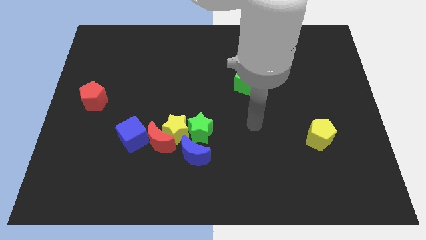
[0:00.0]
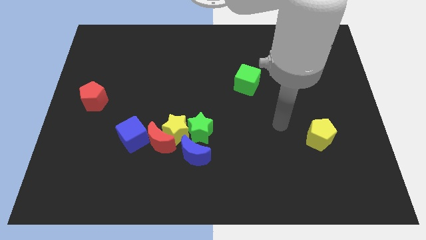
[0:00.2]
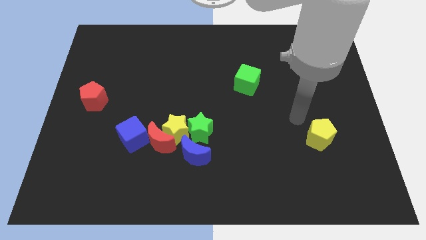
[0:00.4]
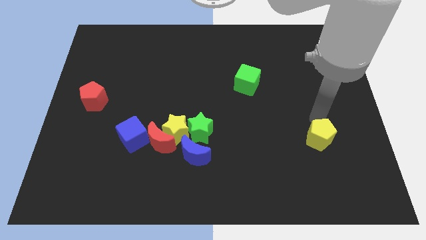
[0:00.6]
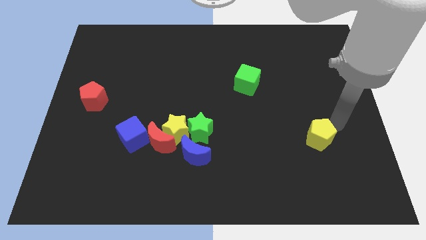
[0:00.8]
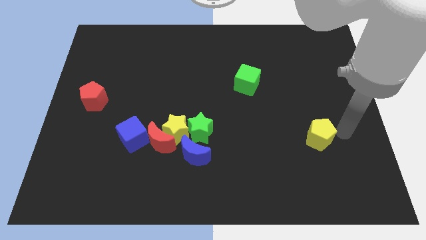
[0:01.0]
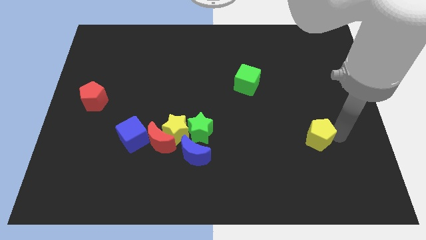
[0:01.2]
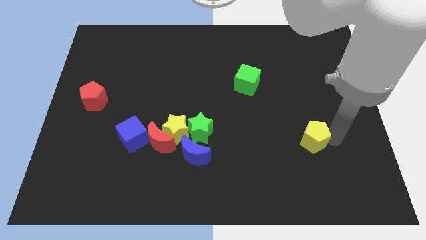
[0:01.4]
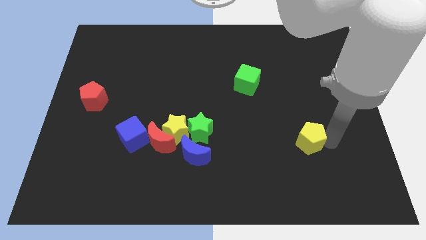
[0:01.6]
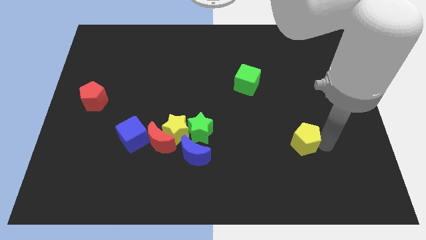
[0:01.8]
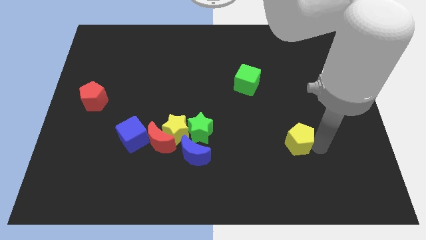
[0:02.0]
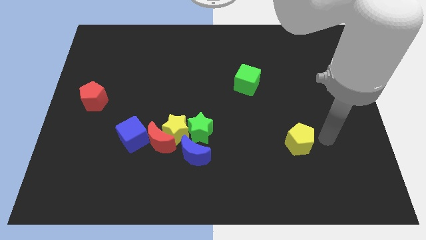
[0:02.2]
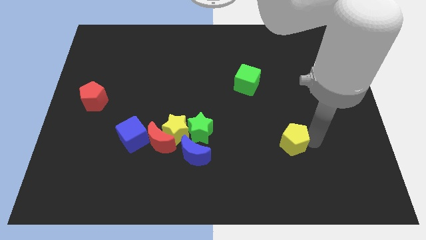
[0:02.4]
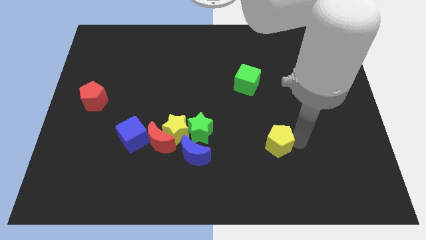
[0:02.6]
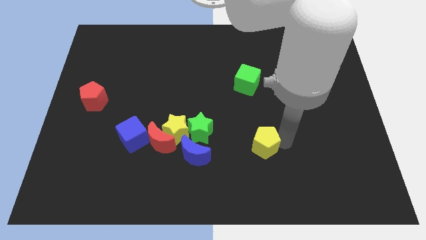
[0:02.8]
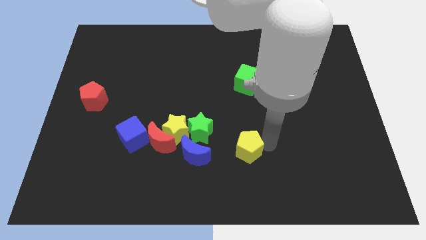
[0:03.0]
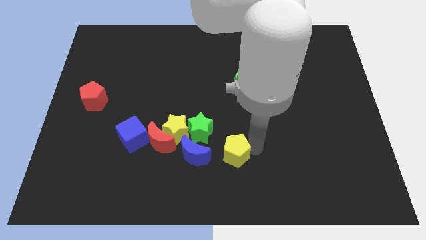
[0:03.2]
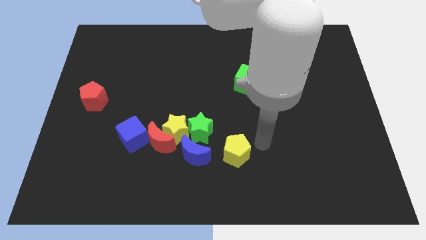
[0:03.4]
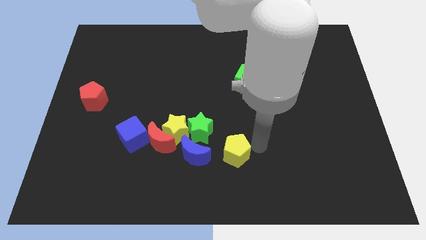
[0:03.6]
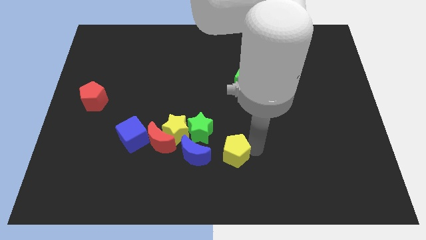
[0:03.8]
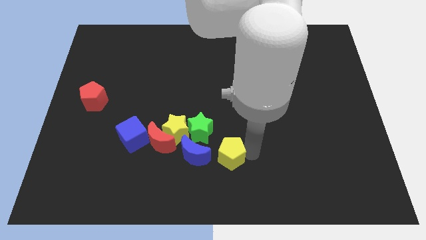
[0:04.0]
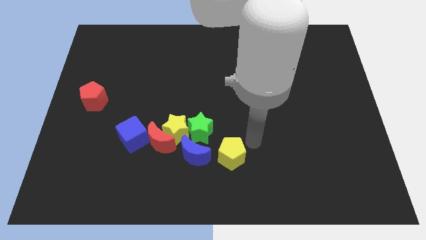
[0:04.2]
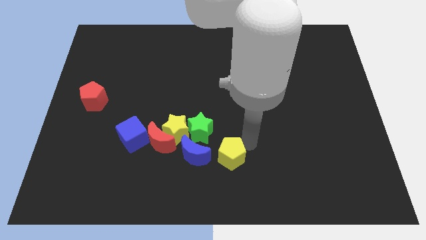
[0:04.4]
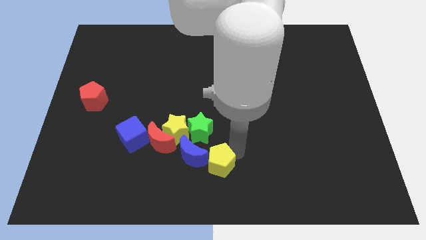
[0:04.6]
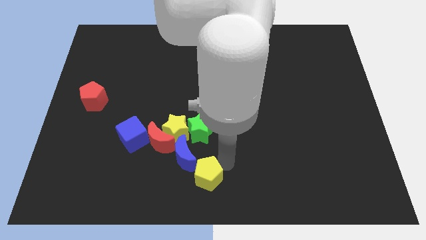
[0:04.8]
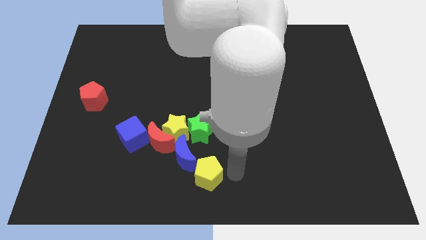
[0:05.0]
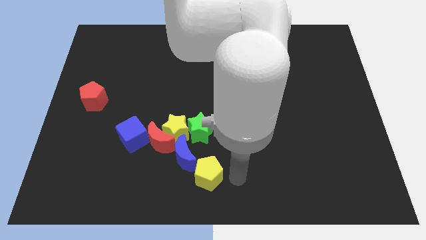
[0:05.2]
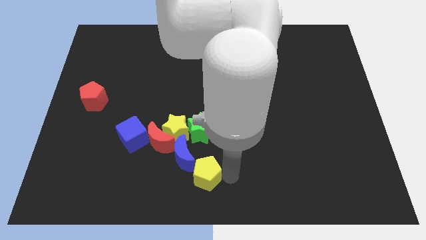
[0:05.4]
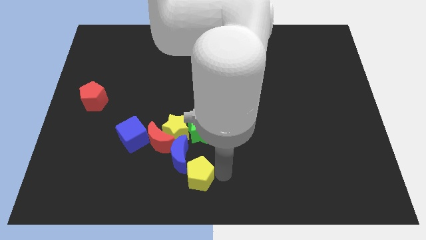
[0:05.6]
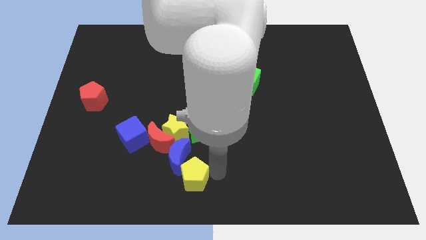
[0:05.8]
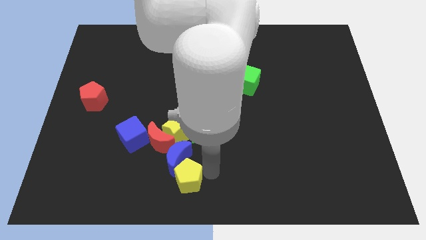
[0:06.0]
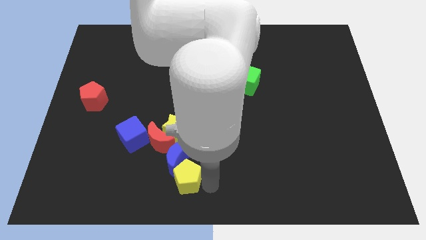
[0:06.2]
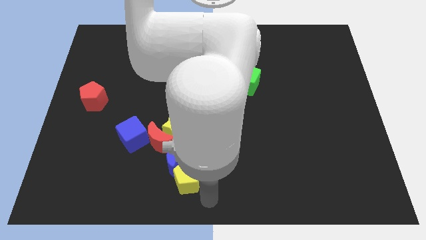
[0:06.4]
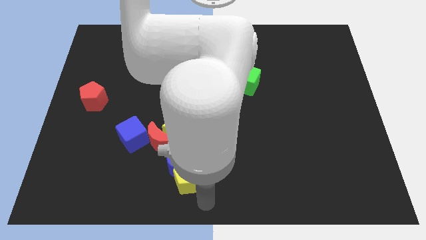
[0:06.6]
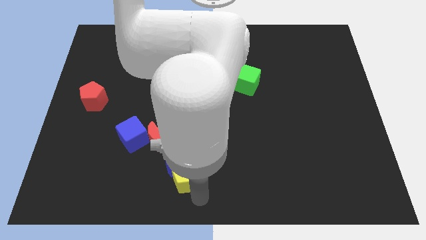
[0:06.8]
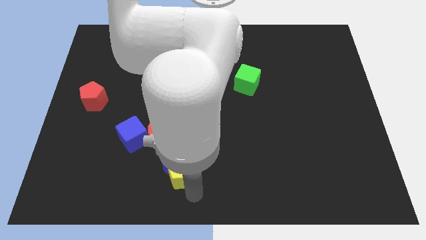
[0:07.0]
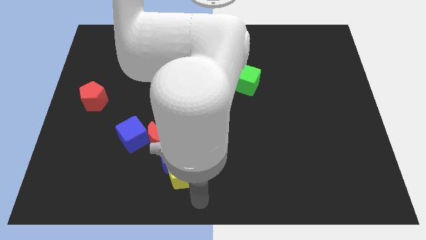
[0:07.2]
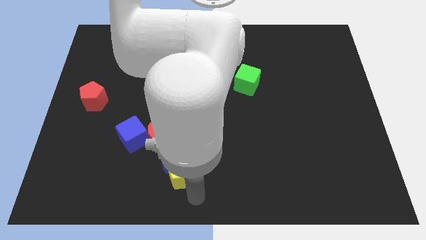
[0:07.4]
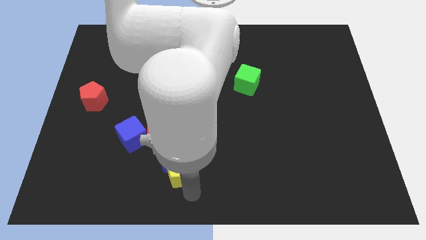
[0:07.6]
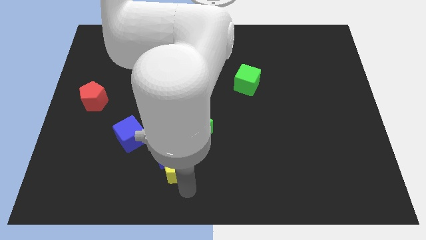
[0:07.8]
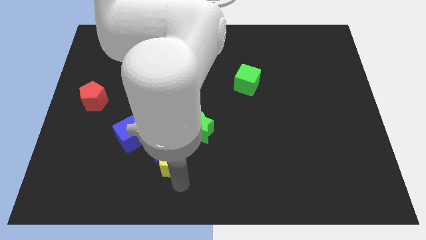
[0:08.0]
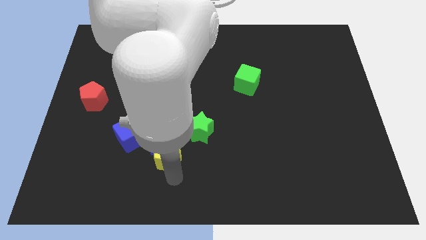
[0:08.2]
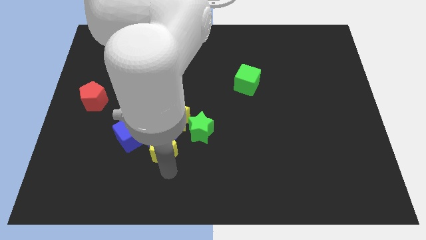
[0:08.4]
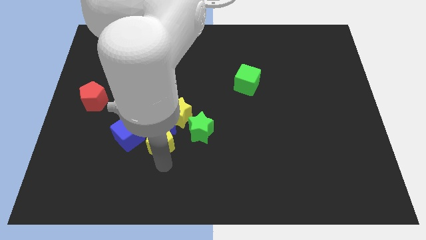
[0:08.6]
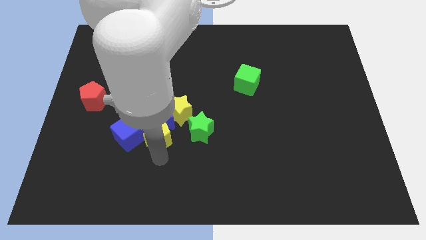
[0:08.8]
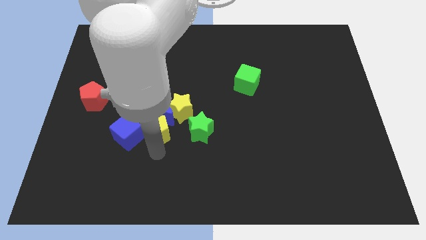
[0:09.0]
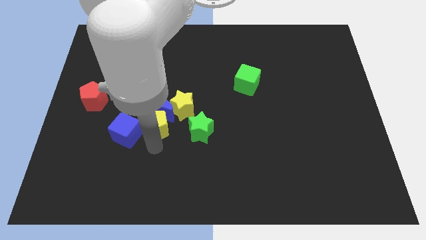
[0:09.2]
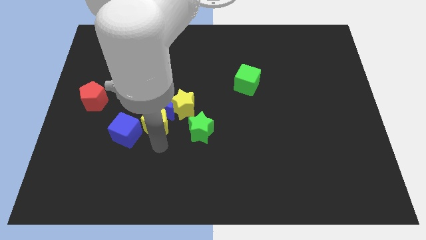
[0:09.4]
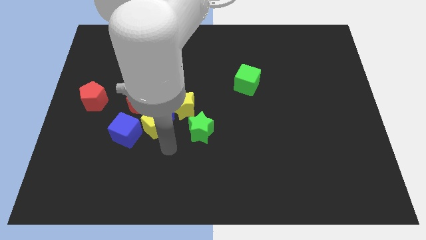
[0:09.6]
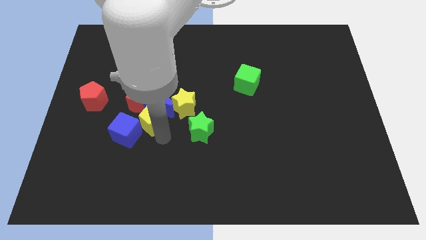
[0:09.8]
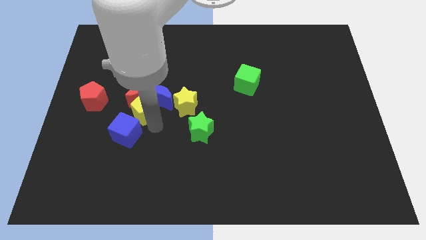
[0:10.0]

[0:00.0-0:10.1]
put the yellow pentagon close to the red moon

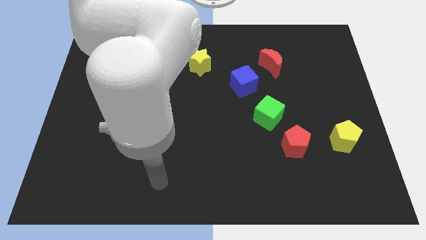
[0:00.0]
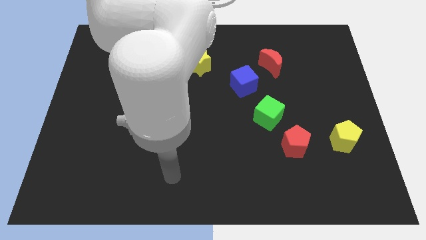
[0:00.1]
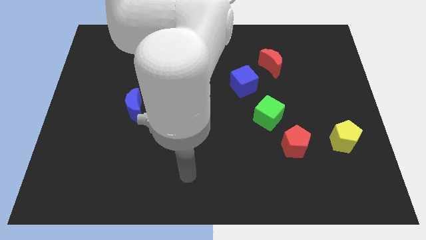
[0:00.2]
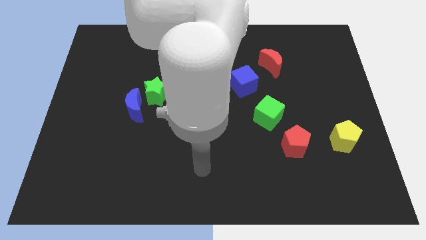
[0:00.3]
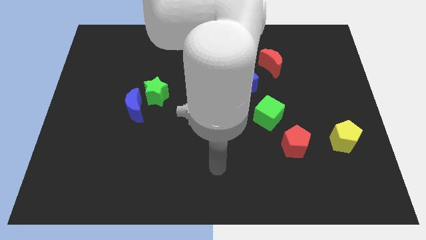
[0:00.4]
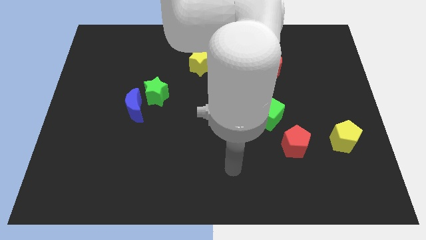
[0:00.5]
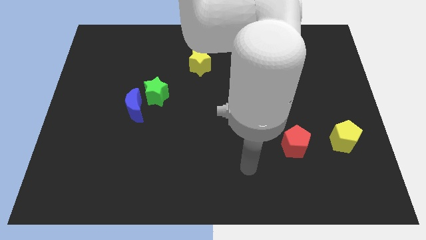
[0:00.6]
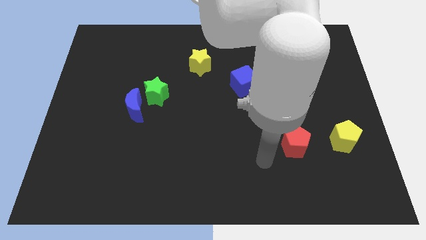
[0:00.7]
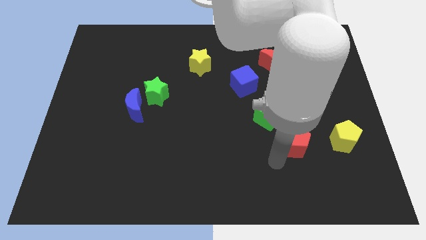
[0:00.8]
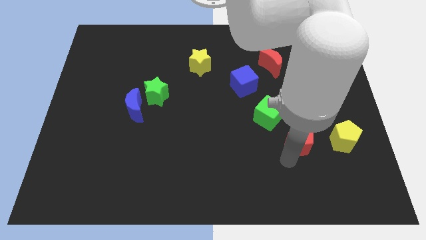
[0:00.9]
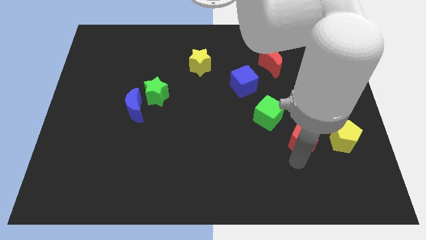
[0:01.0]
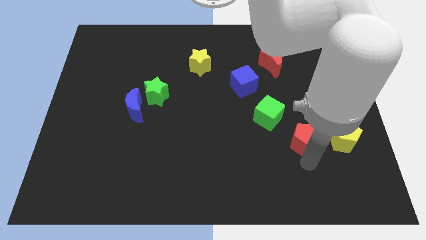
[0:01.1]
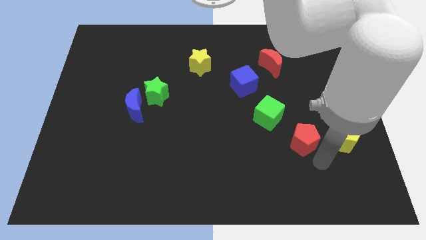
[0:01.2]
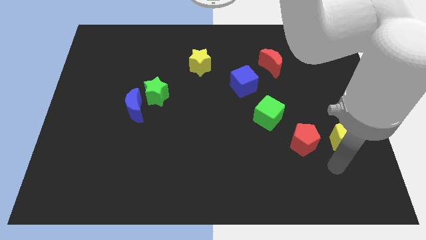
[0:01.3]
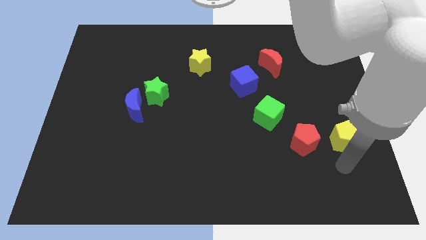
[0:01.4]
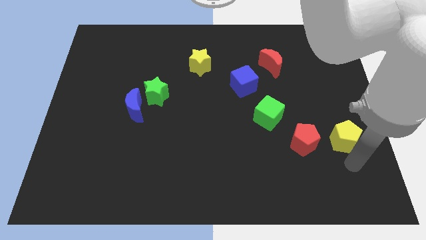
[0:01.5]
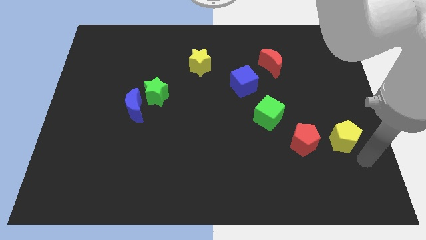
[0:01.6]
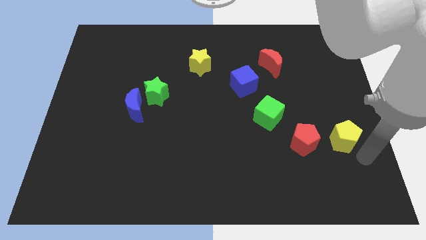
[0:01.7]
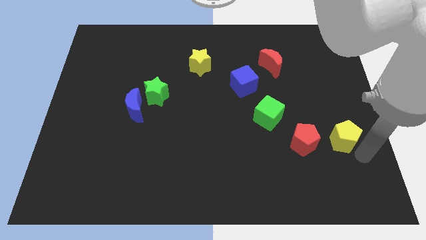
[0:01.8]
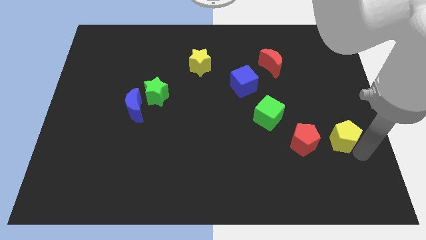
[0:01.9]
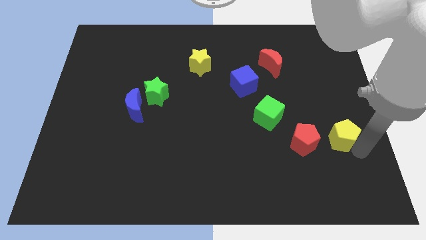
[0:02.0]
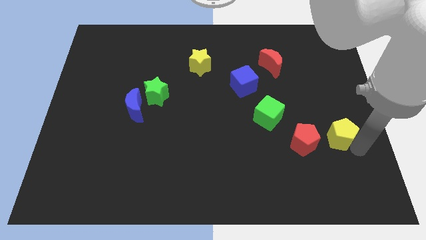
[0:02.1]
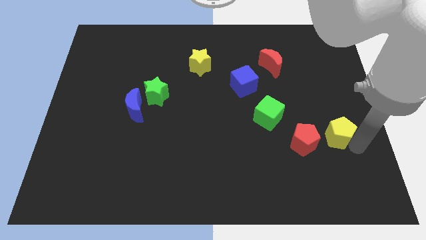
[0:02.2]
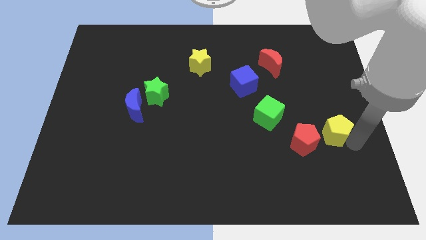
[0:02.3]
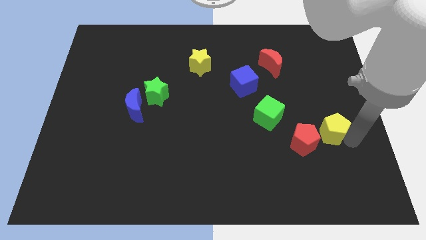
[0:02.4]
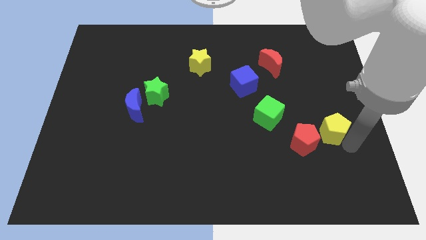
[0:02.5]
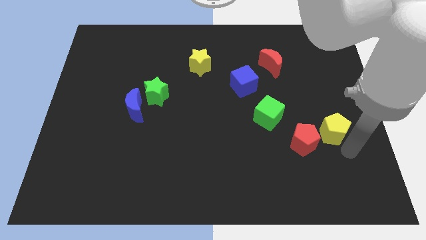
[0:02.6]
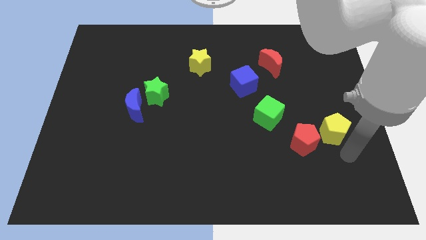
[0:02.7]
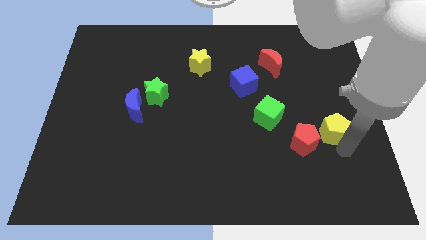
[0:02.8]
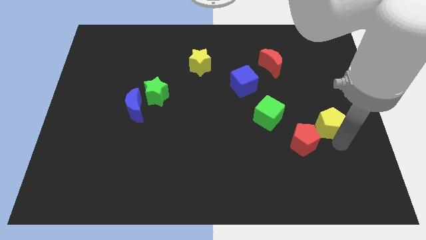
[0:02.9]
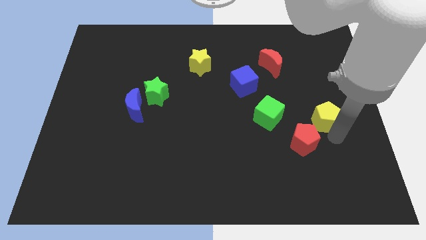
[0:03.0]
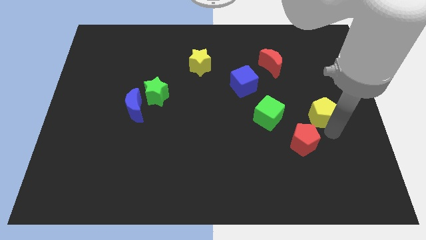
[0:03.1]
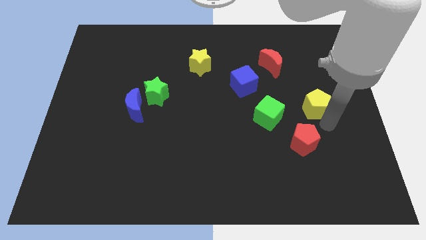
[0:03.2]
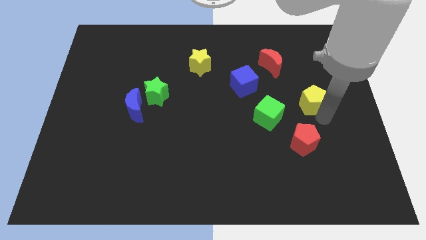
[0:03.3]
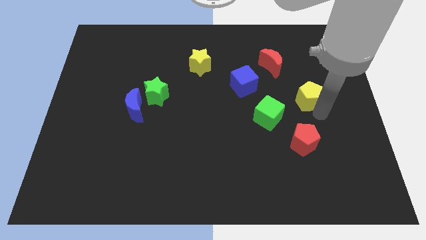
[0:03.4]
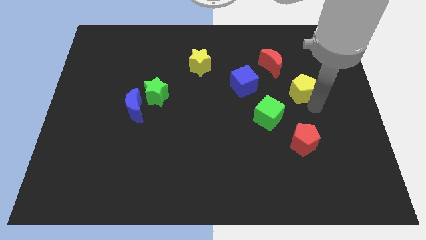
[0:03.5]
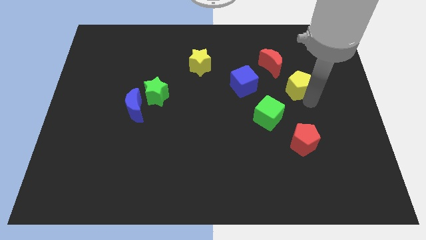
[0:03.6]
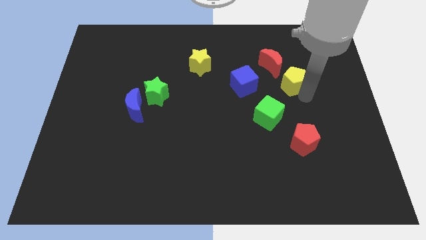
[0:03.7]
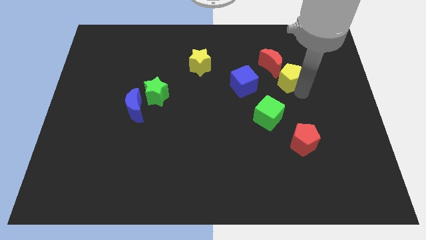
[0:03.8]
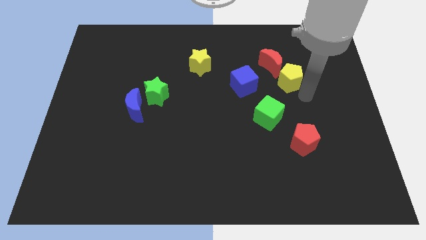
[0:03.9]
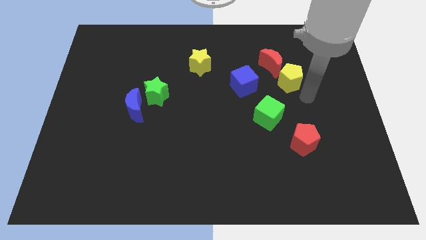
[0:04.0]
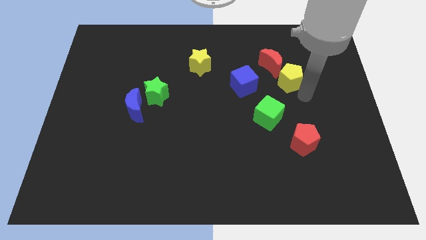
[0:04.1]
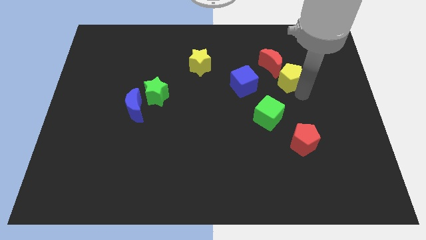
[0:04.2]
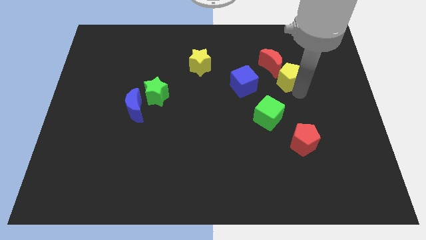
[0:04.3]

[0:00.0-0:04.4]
put the yellow pentagon to the red moon
